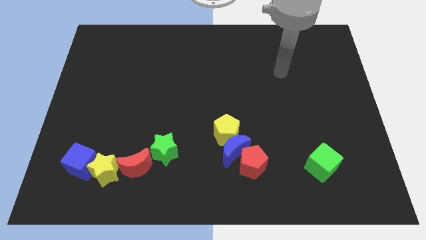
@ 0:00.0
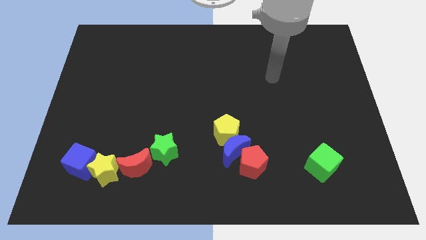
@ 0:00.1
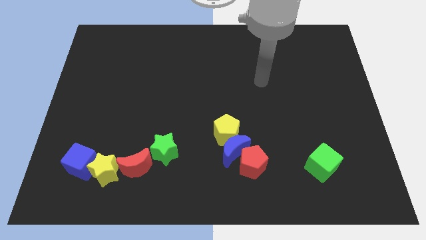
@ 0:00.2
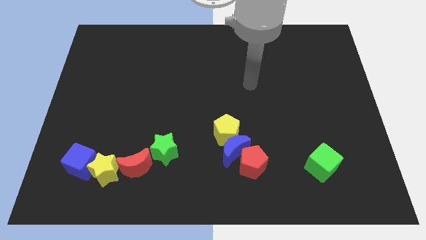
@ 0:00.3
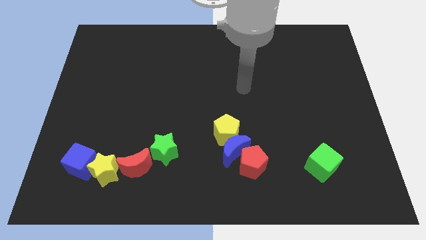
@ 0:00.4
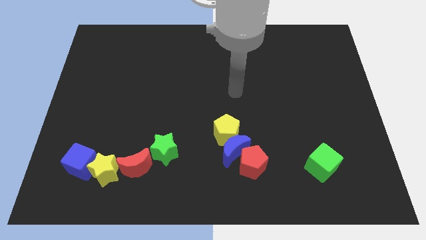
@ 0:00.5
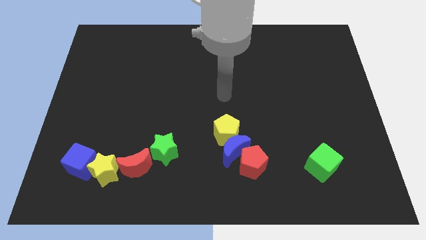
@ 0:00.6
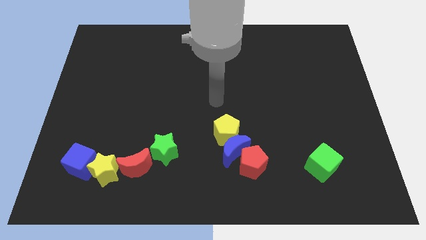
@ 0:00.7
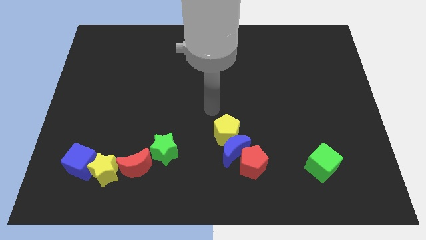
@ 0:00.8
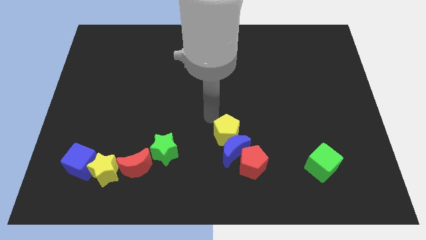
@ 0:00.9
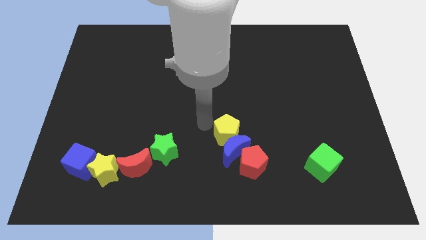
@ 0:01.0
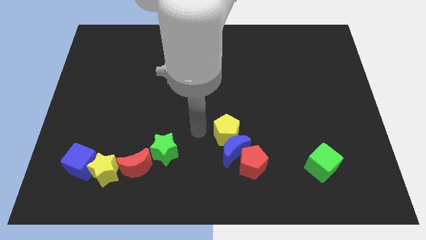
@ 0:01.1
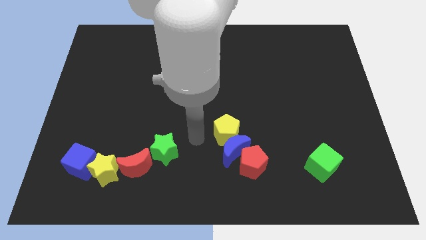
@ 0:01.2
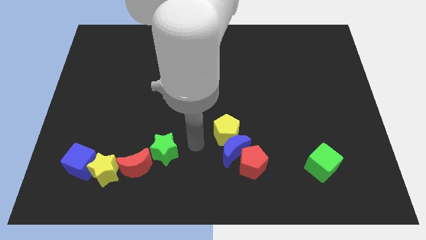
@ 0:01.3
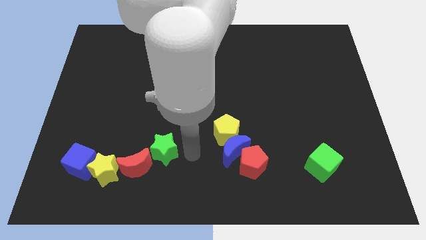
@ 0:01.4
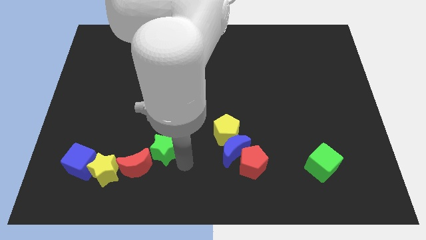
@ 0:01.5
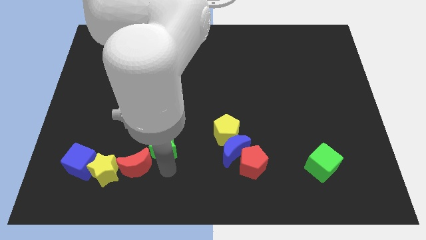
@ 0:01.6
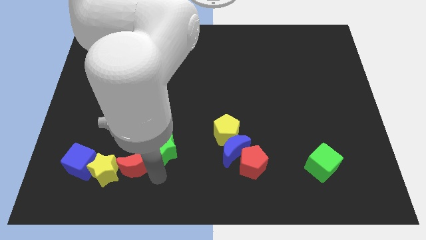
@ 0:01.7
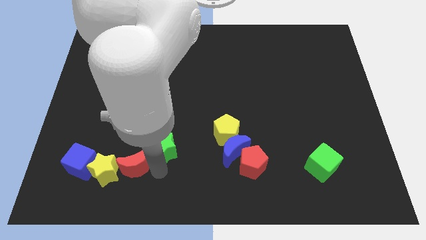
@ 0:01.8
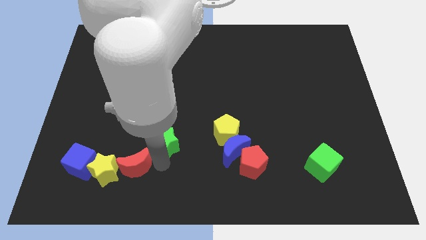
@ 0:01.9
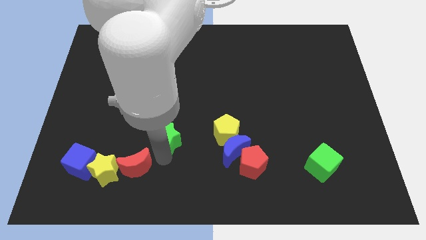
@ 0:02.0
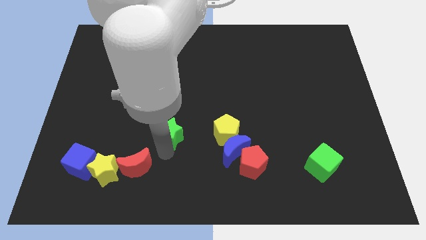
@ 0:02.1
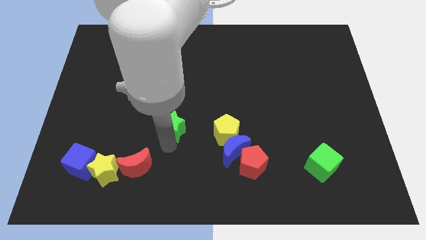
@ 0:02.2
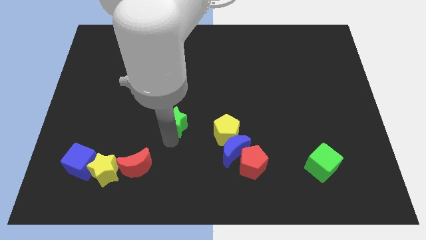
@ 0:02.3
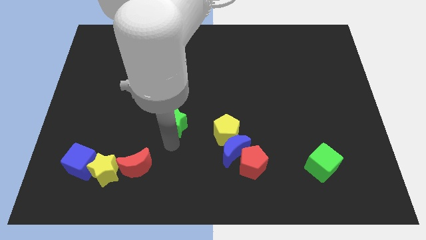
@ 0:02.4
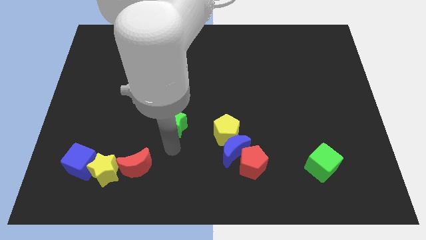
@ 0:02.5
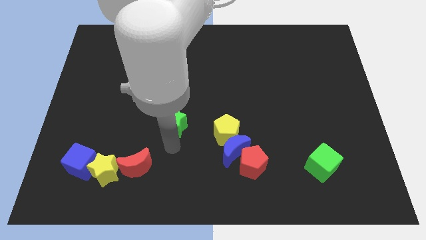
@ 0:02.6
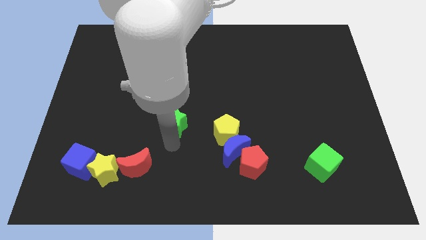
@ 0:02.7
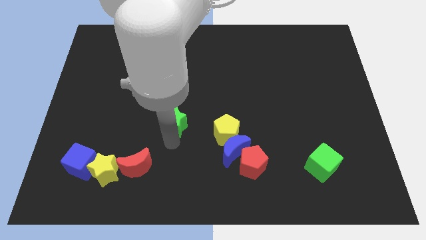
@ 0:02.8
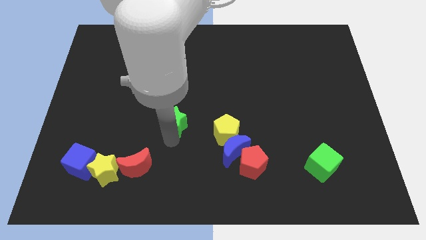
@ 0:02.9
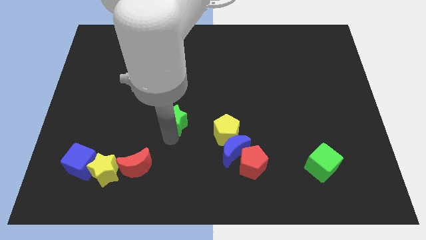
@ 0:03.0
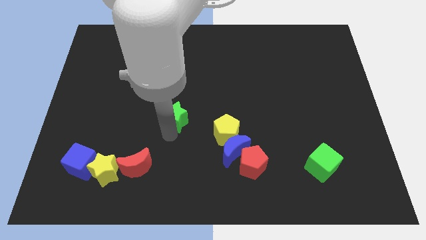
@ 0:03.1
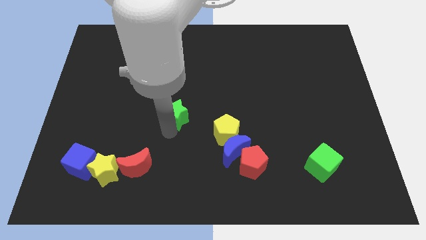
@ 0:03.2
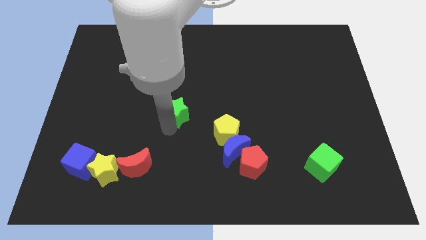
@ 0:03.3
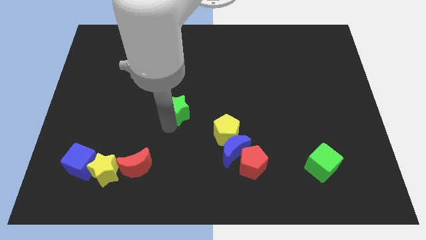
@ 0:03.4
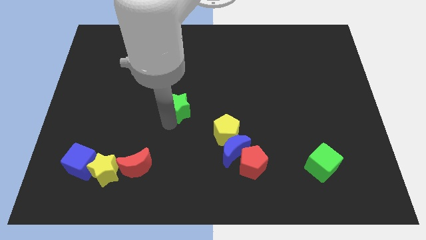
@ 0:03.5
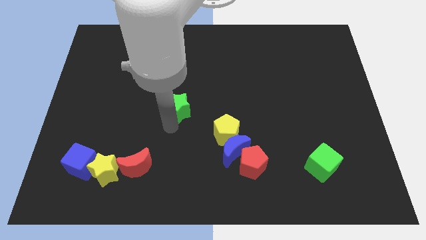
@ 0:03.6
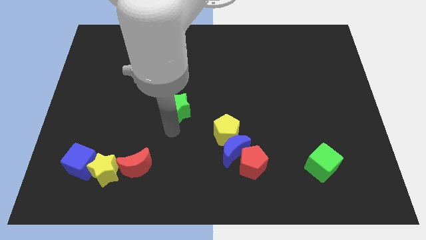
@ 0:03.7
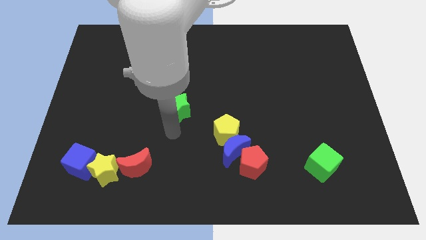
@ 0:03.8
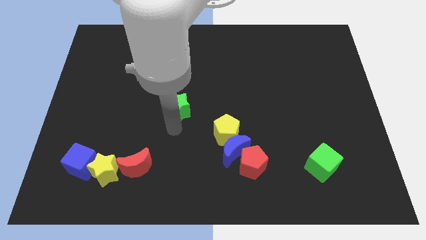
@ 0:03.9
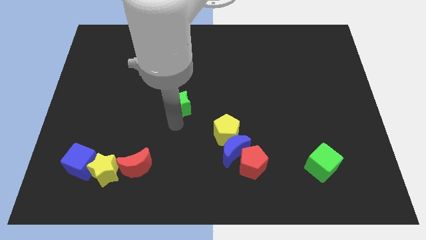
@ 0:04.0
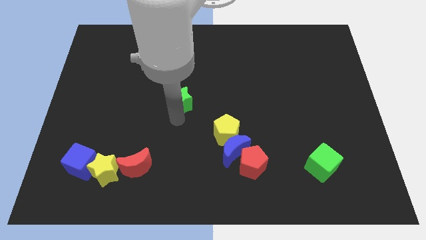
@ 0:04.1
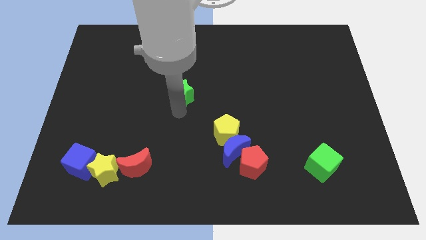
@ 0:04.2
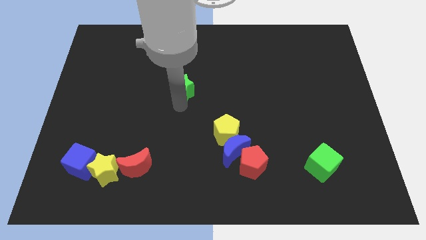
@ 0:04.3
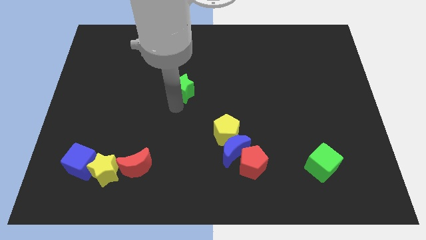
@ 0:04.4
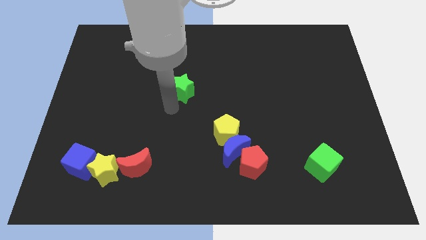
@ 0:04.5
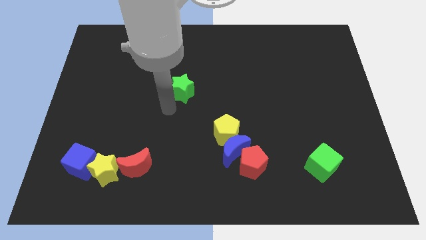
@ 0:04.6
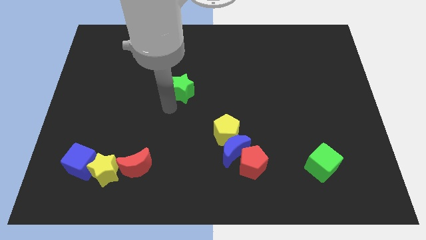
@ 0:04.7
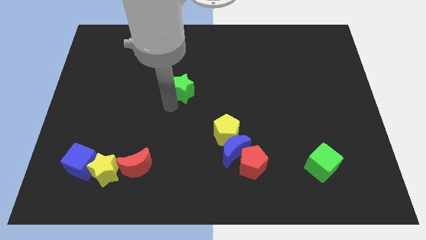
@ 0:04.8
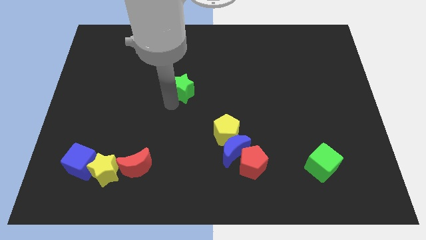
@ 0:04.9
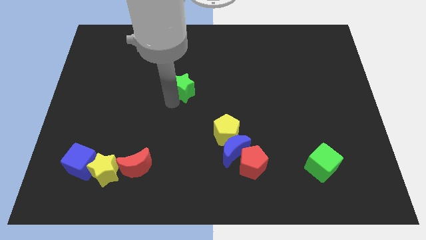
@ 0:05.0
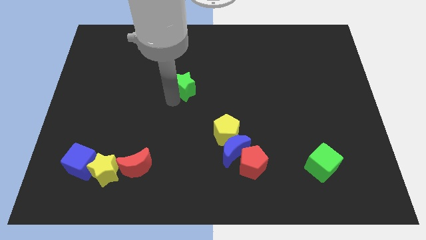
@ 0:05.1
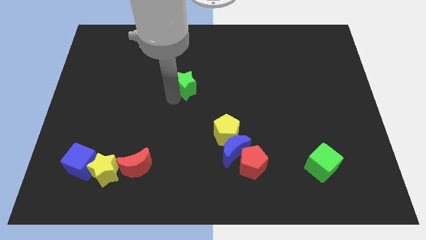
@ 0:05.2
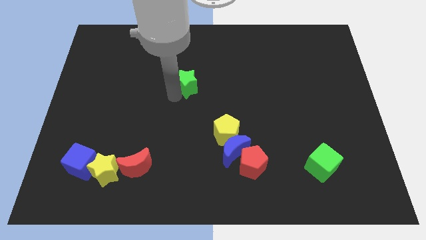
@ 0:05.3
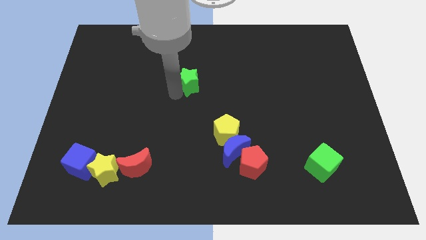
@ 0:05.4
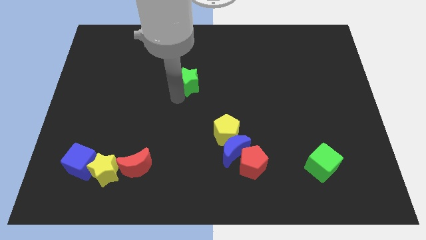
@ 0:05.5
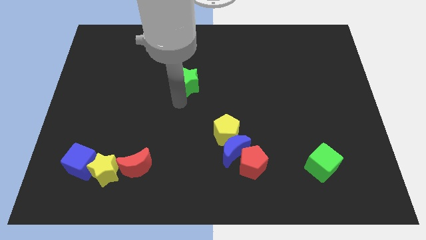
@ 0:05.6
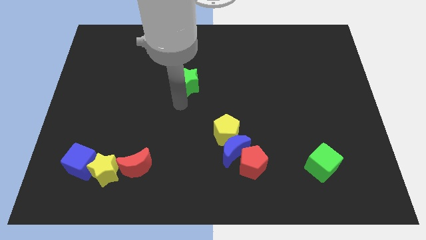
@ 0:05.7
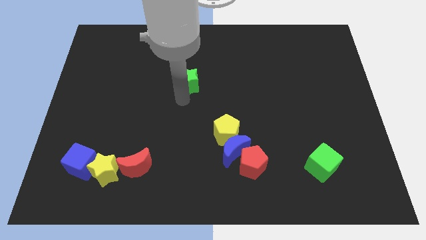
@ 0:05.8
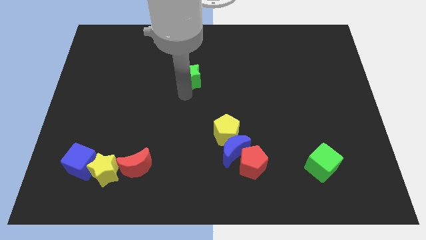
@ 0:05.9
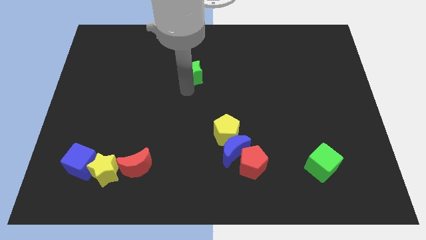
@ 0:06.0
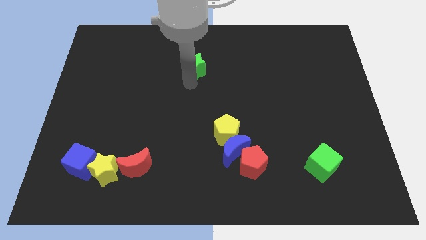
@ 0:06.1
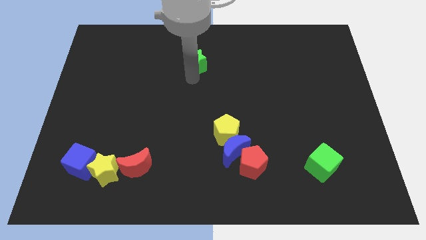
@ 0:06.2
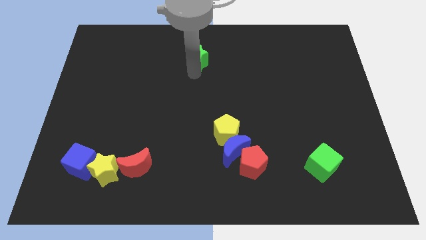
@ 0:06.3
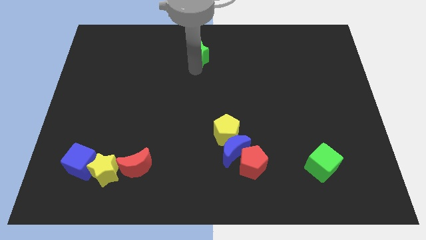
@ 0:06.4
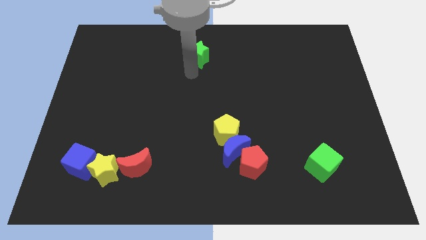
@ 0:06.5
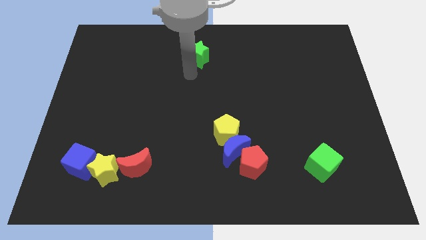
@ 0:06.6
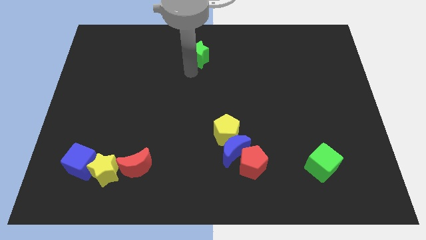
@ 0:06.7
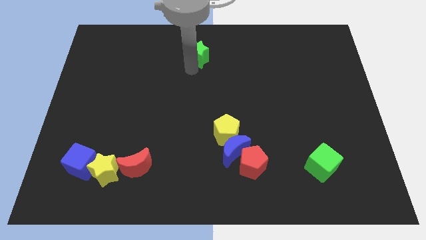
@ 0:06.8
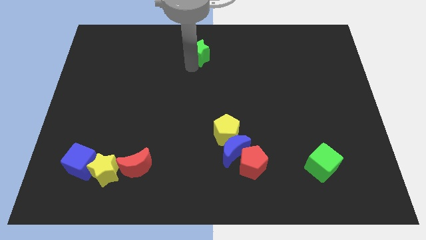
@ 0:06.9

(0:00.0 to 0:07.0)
push the green star to the top
